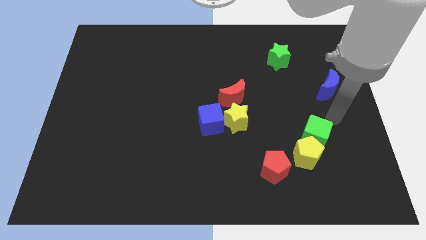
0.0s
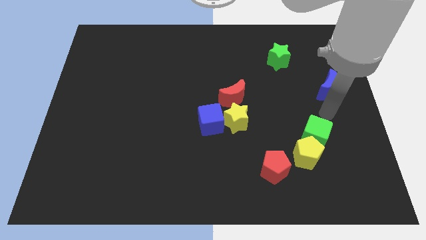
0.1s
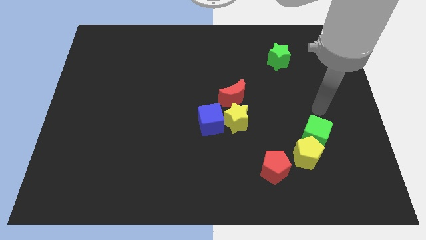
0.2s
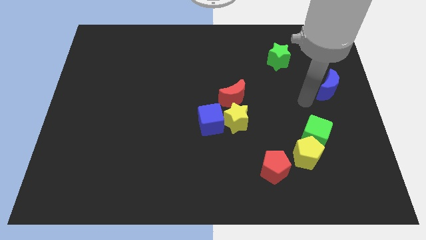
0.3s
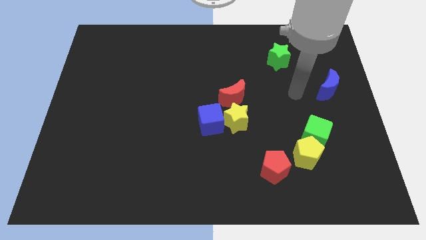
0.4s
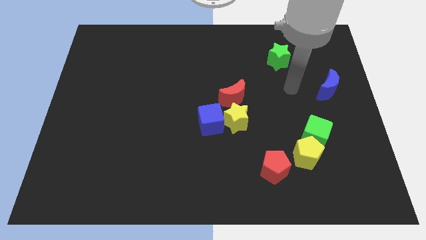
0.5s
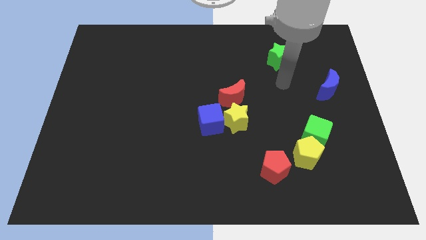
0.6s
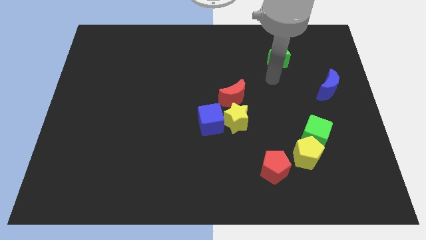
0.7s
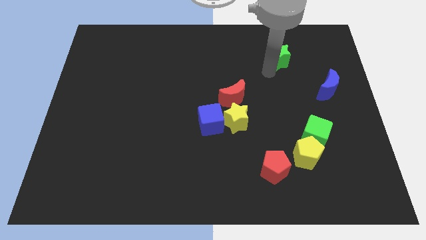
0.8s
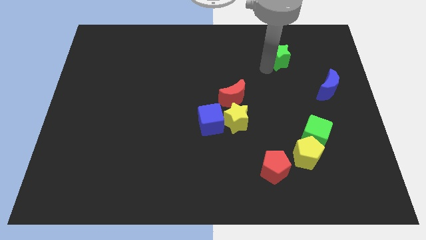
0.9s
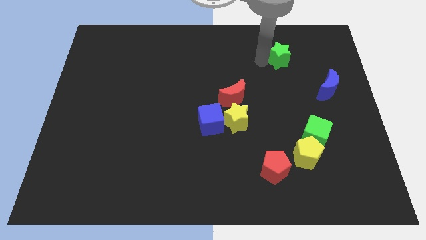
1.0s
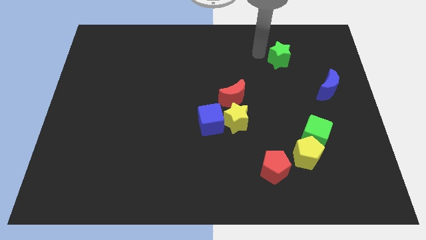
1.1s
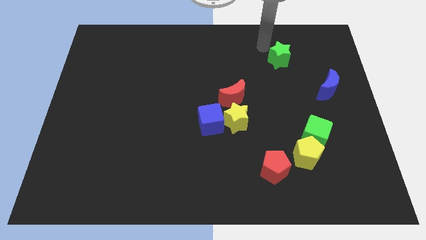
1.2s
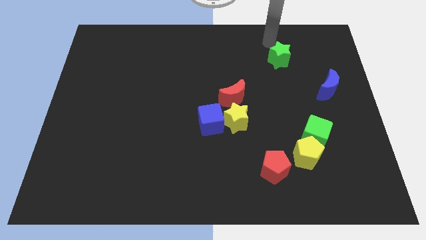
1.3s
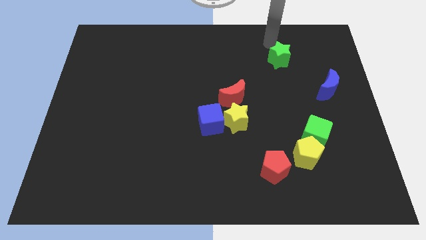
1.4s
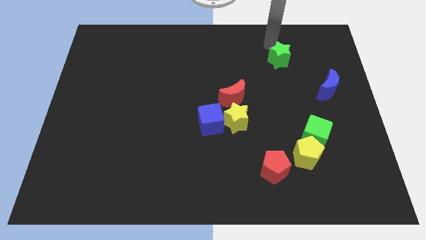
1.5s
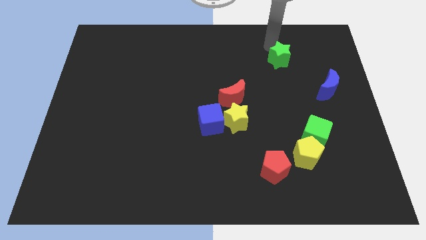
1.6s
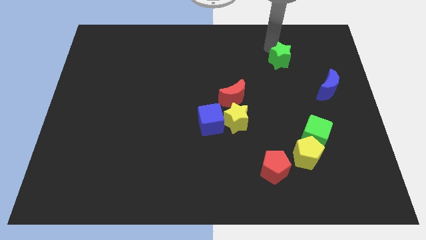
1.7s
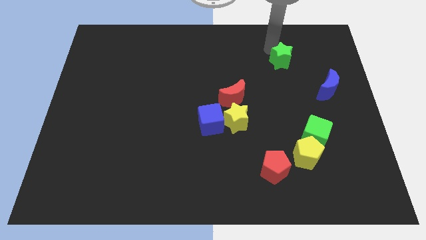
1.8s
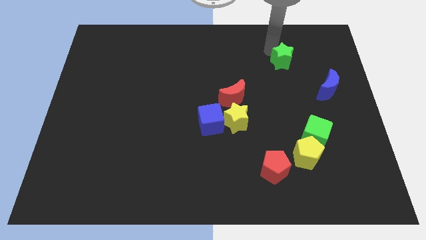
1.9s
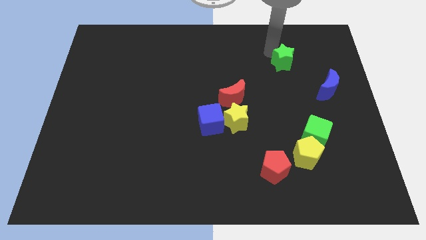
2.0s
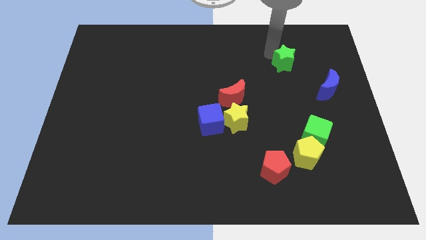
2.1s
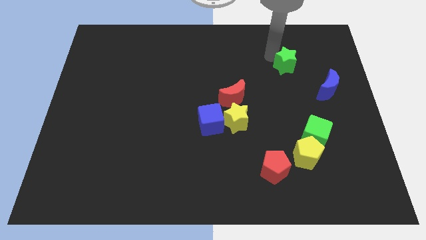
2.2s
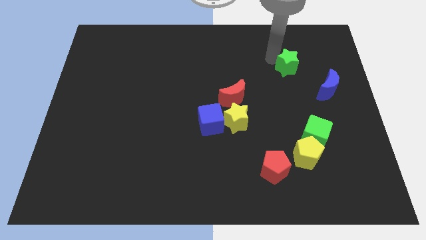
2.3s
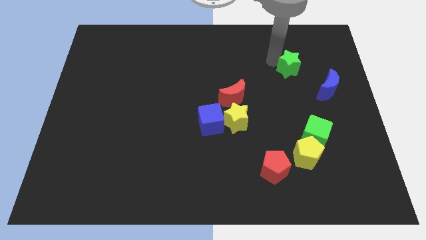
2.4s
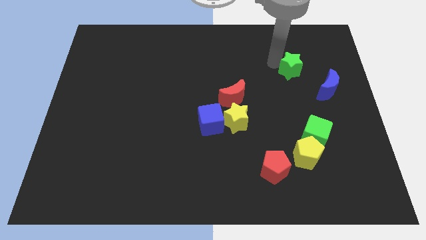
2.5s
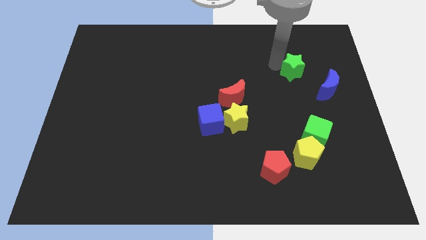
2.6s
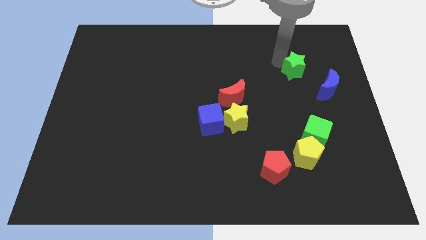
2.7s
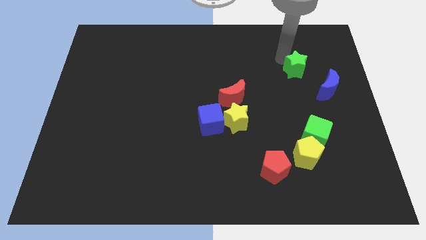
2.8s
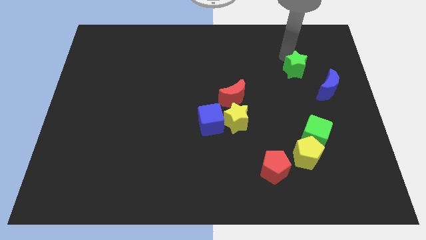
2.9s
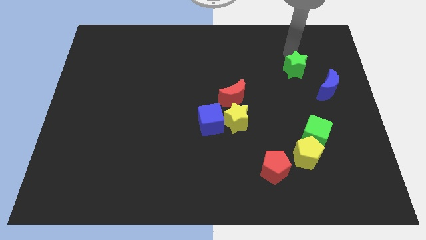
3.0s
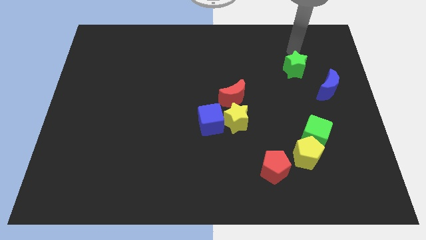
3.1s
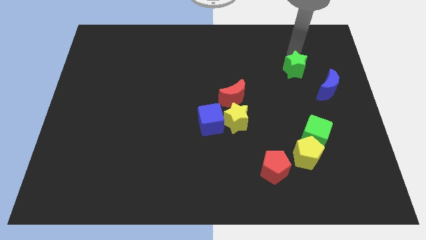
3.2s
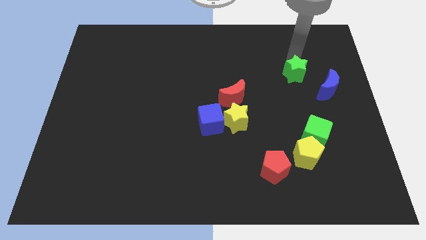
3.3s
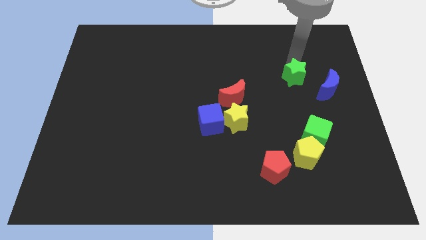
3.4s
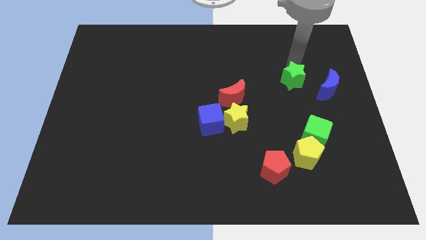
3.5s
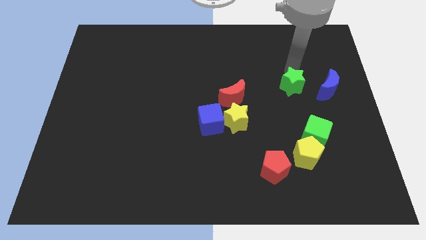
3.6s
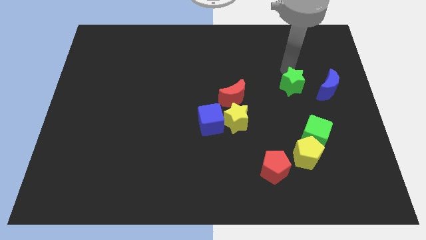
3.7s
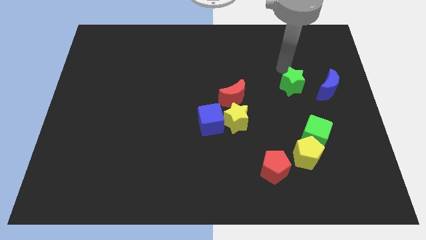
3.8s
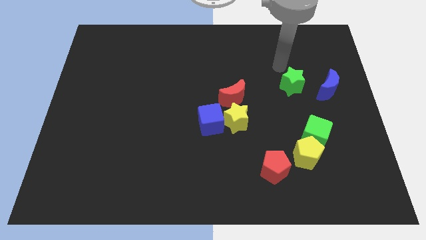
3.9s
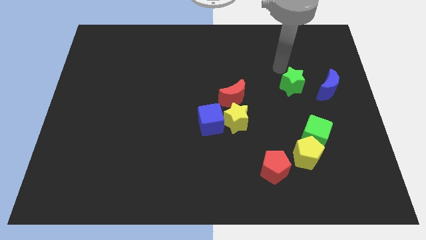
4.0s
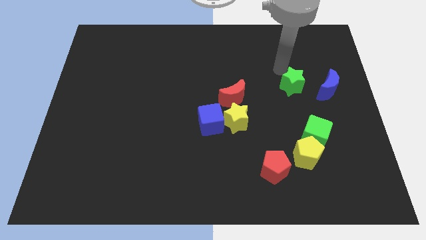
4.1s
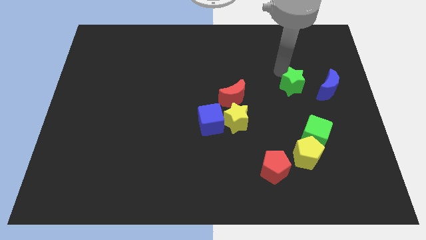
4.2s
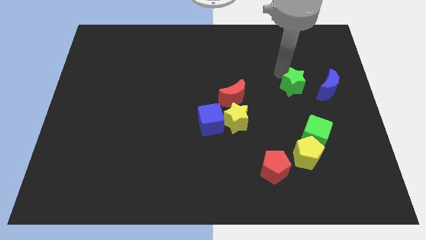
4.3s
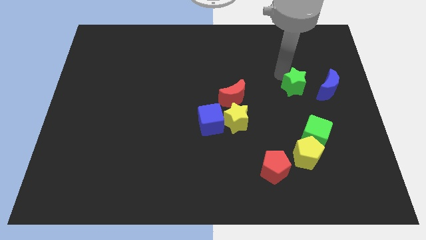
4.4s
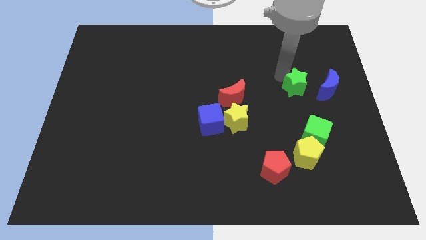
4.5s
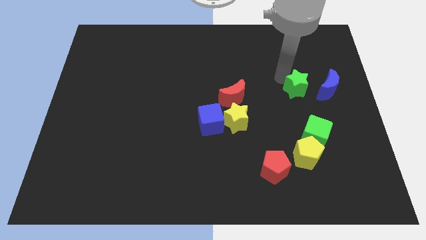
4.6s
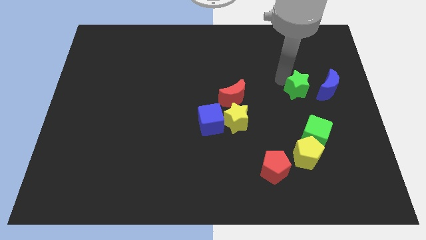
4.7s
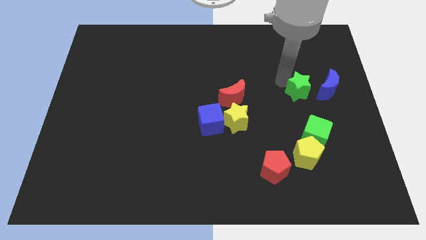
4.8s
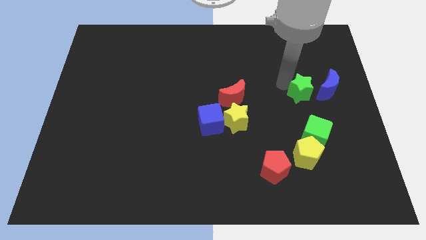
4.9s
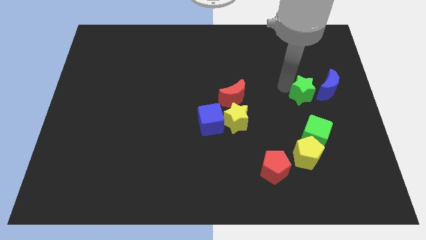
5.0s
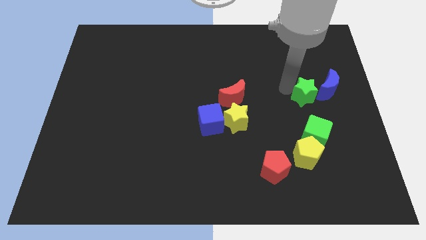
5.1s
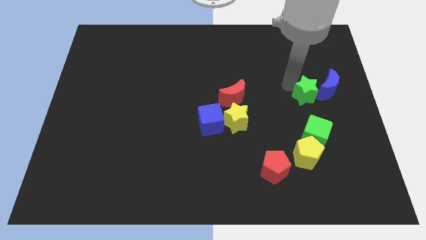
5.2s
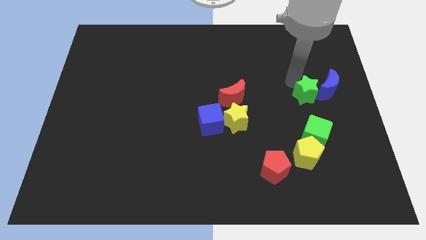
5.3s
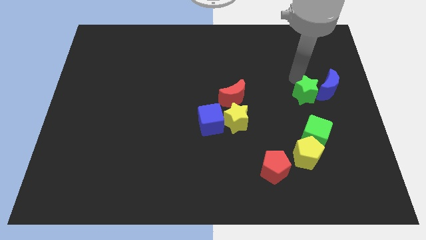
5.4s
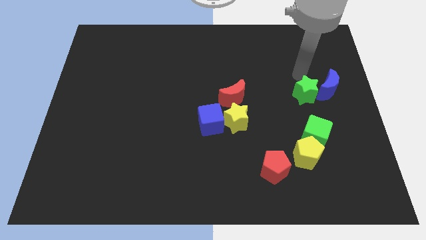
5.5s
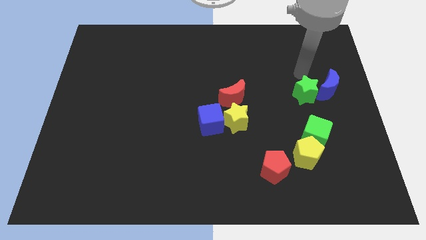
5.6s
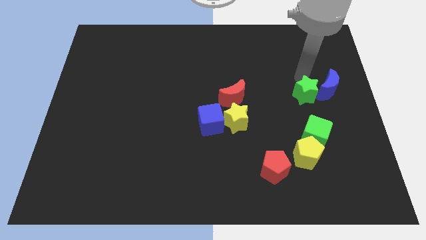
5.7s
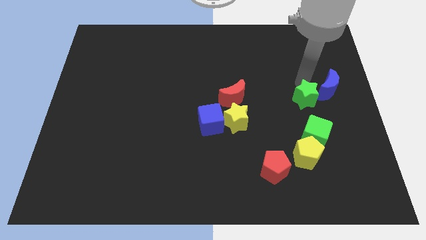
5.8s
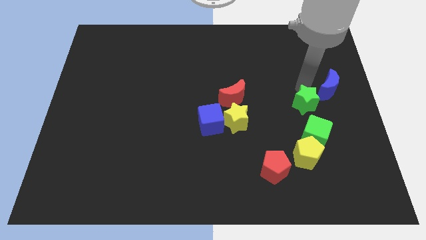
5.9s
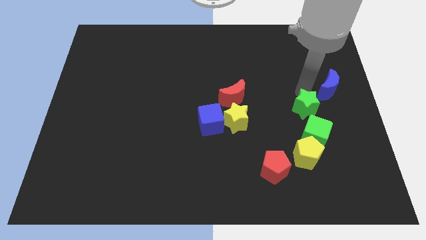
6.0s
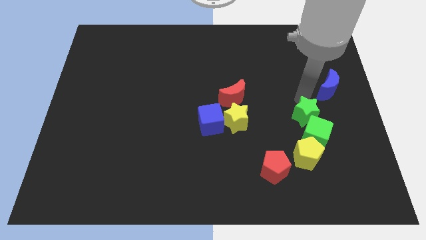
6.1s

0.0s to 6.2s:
slide the green star to the green cube
